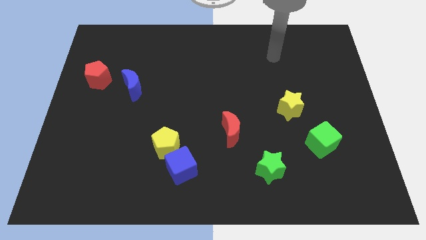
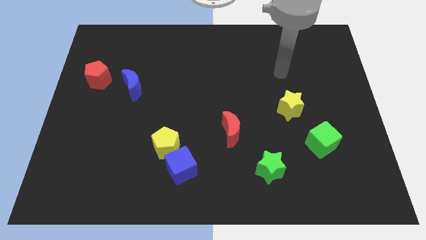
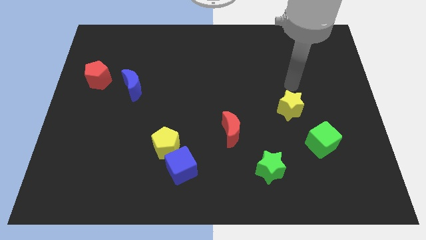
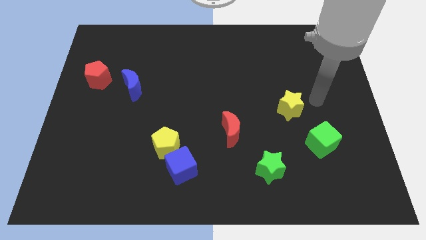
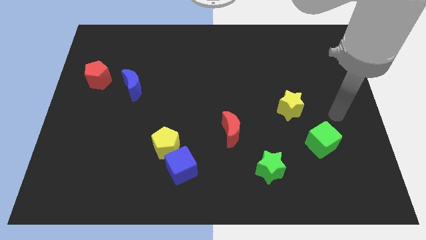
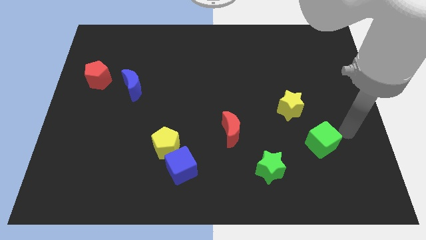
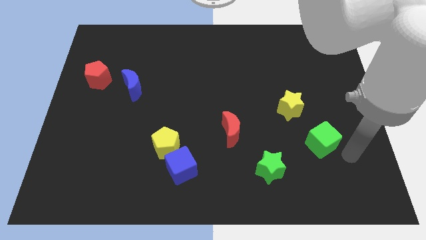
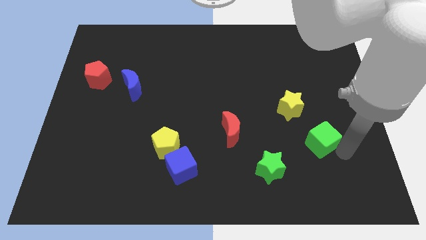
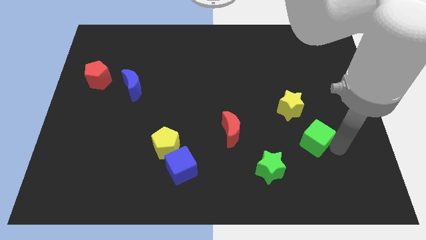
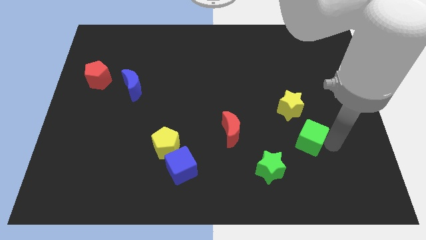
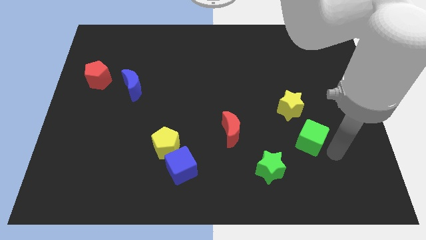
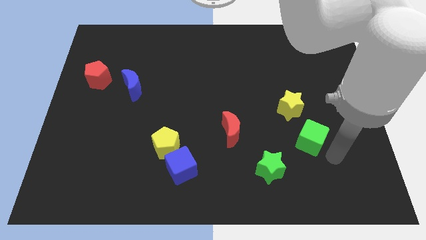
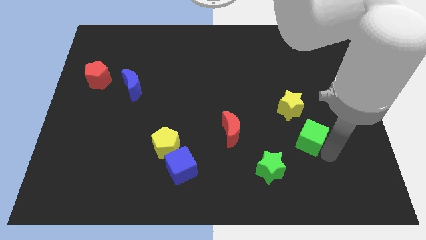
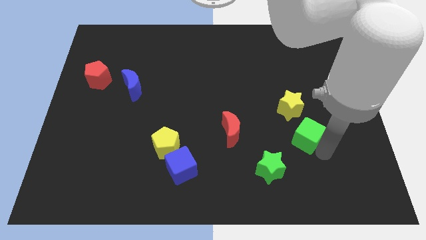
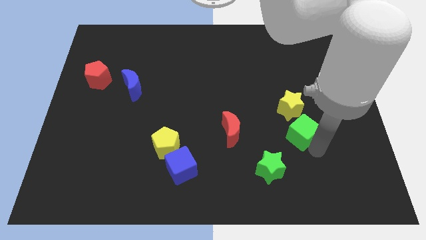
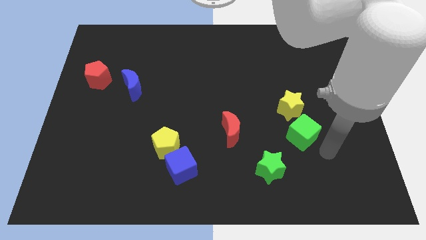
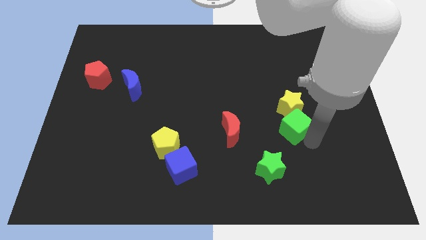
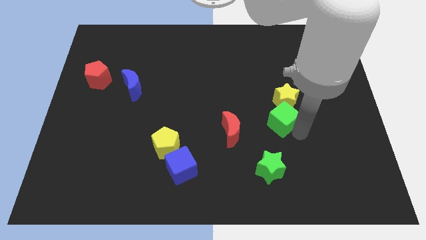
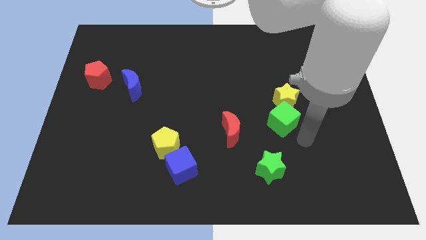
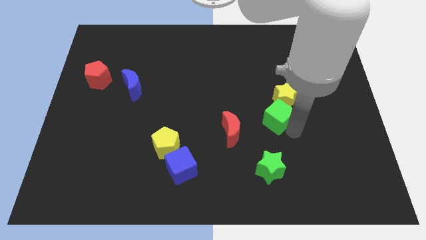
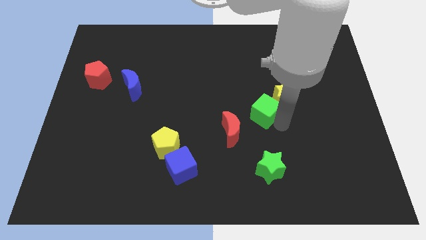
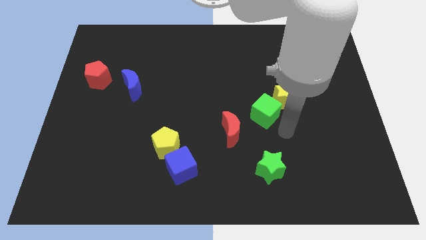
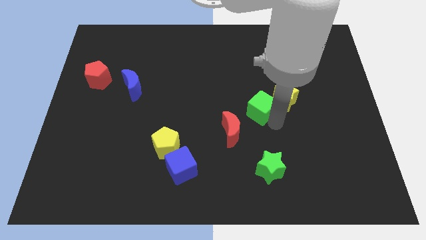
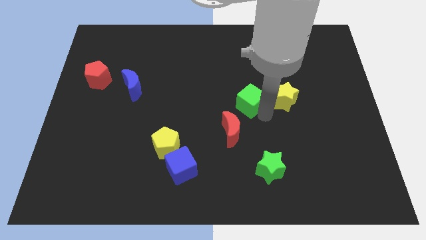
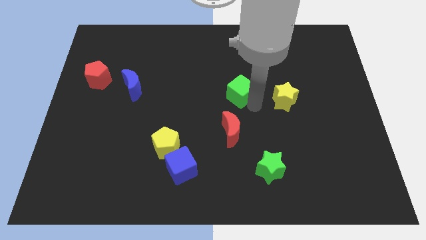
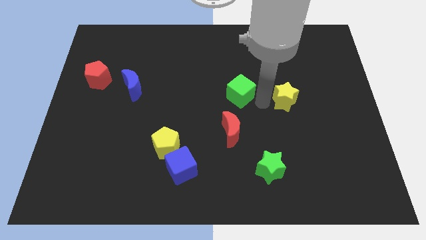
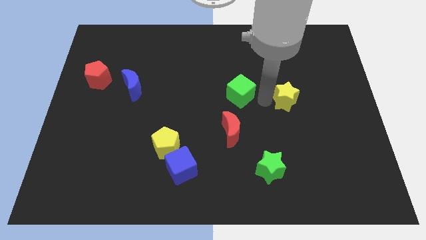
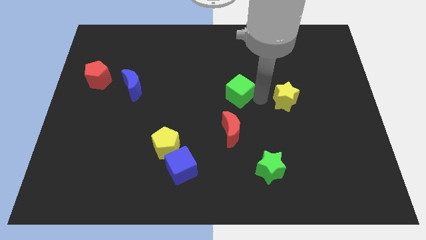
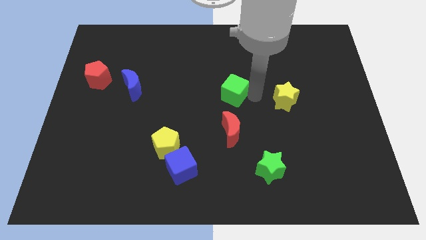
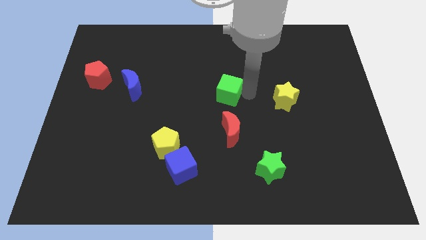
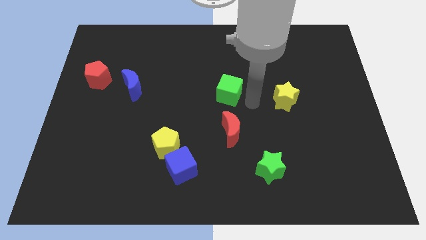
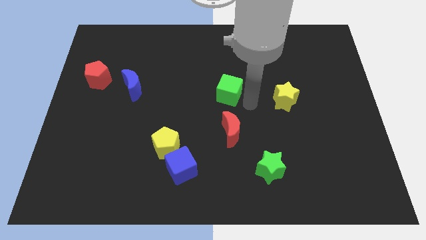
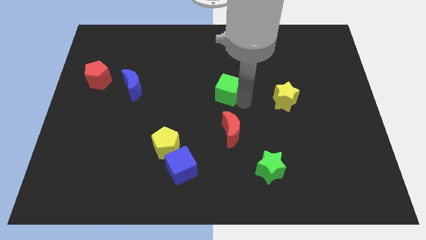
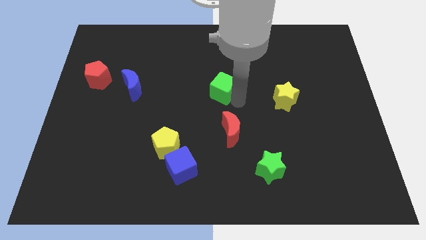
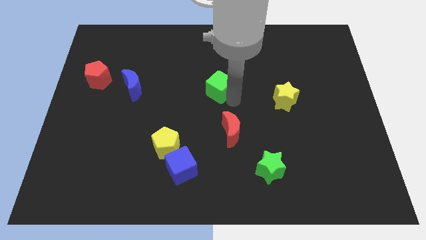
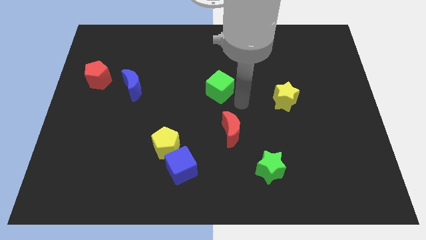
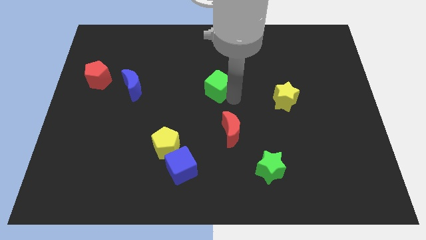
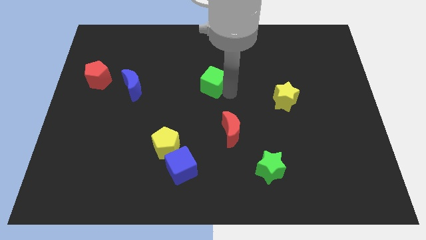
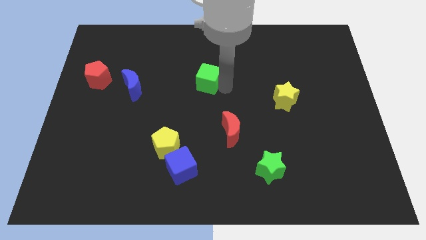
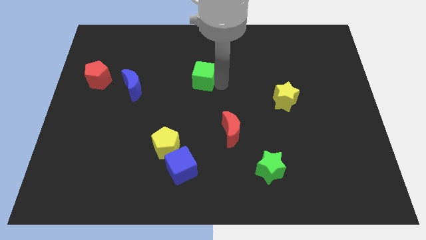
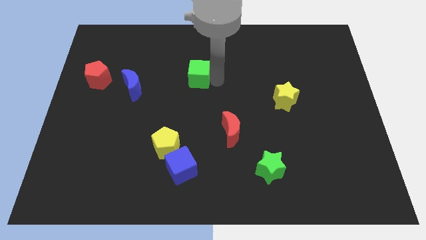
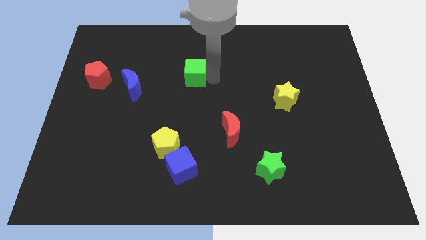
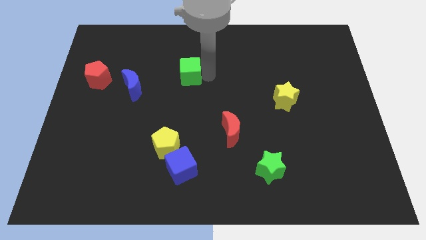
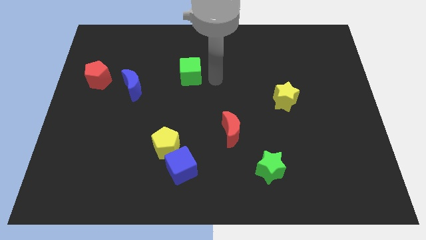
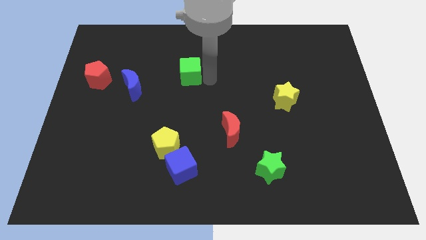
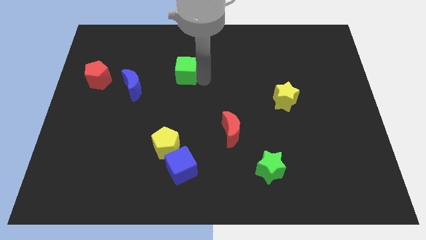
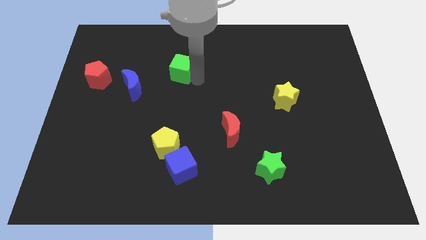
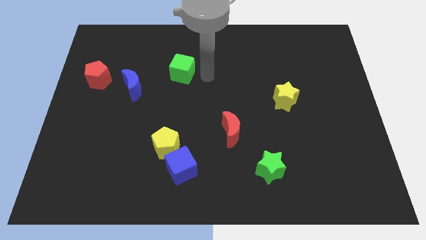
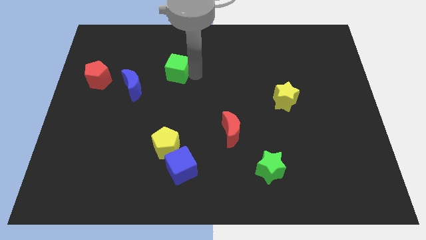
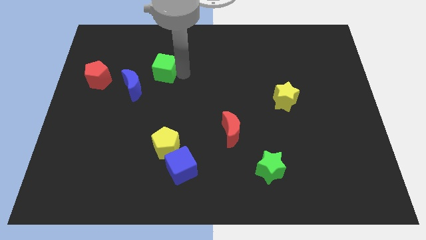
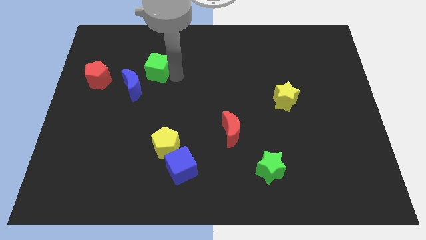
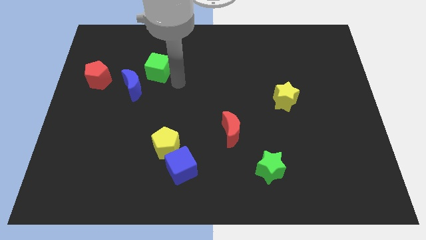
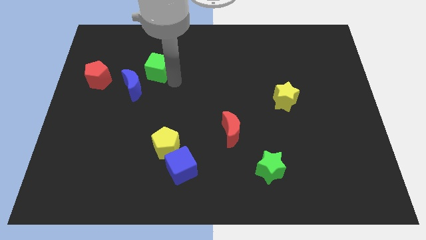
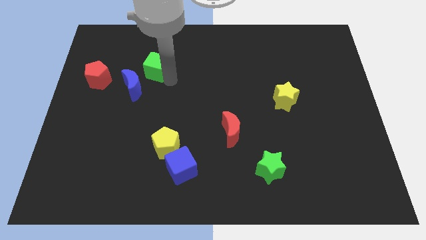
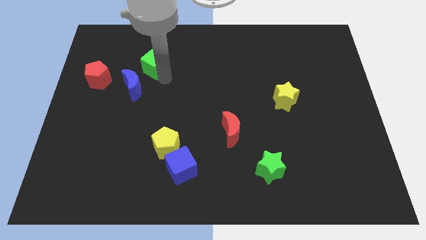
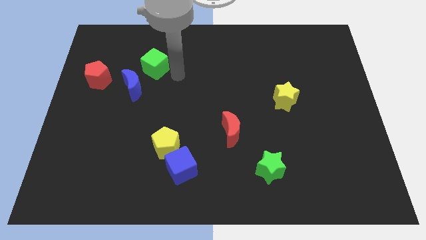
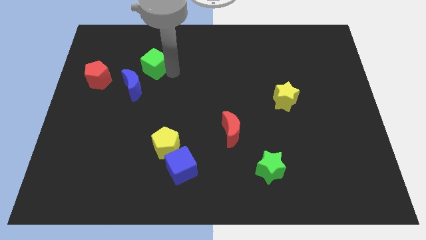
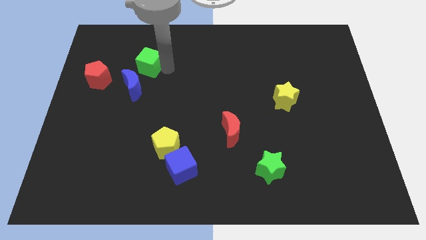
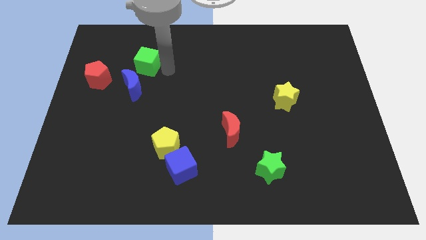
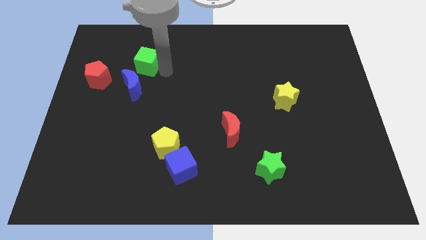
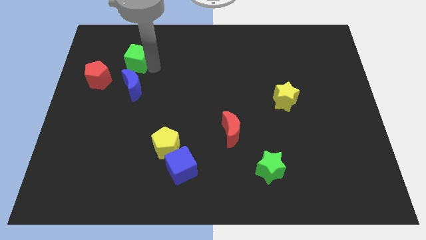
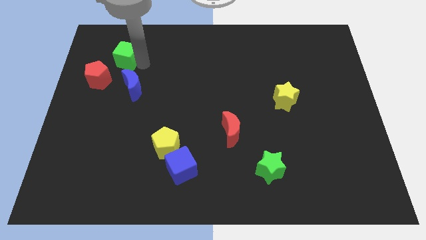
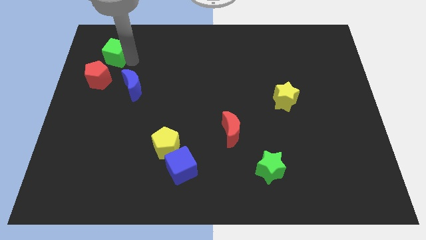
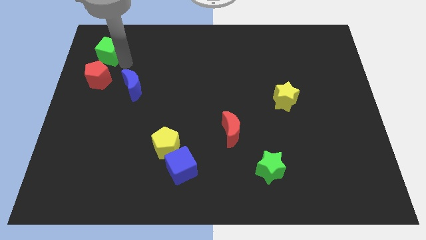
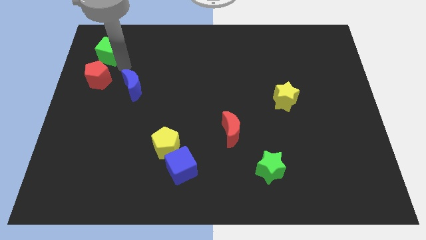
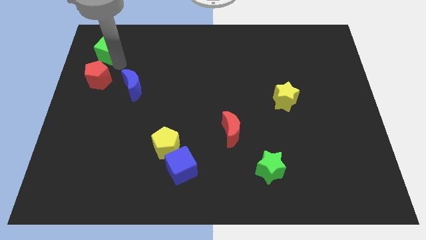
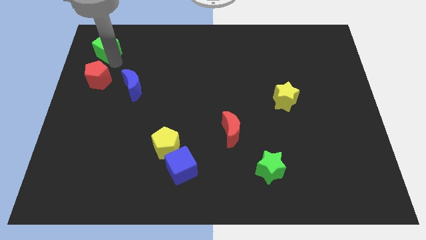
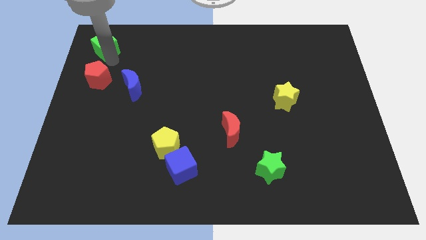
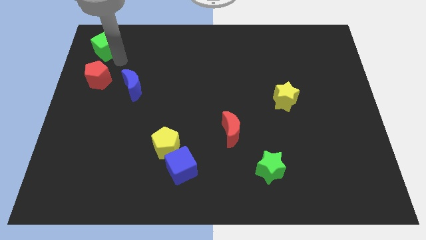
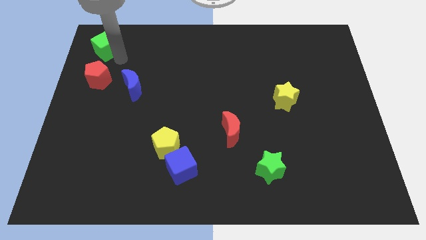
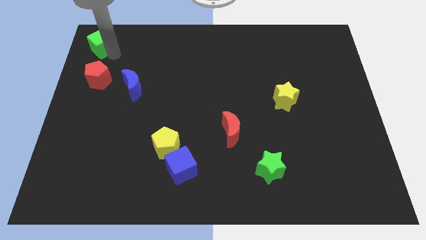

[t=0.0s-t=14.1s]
slide the green cube to the top left of the board
